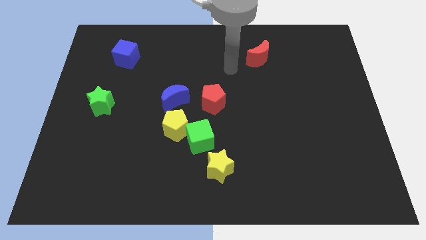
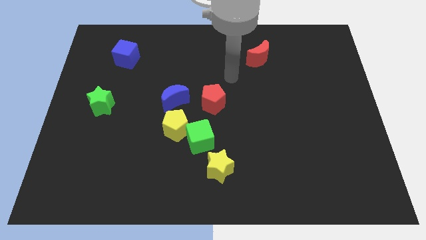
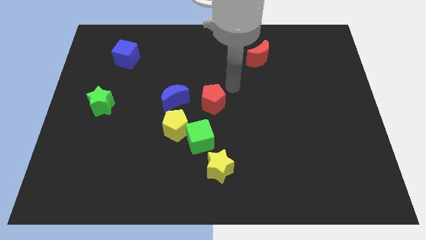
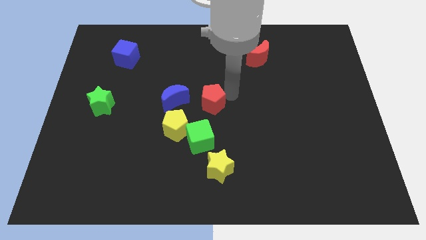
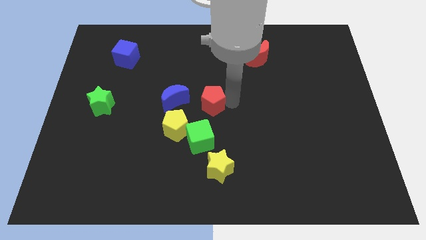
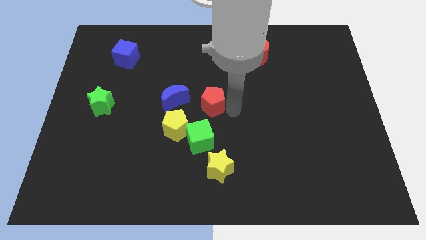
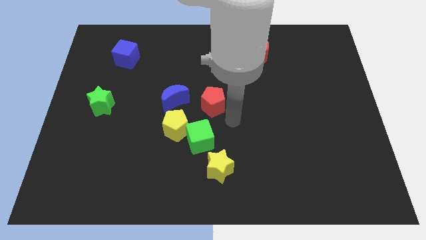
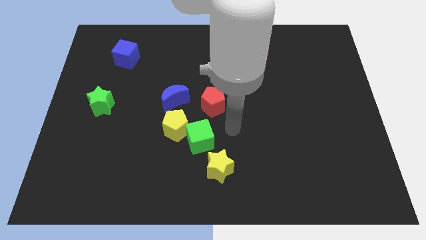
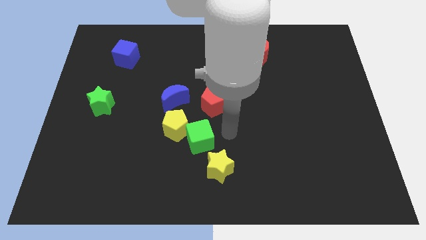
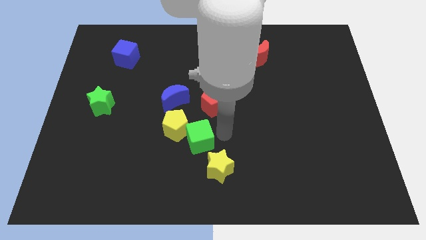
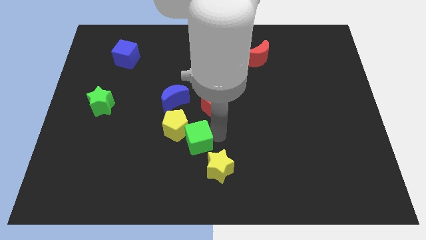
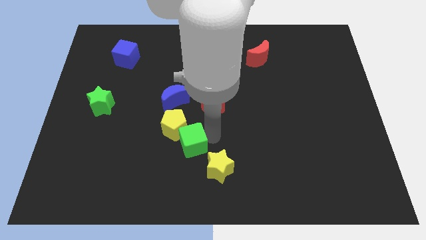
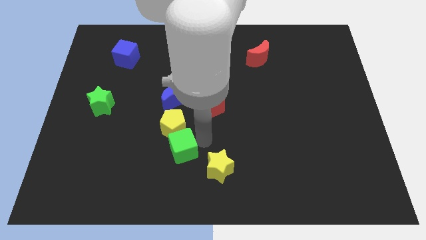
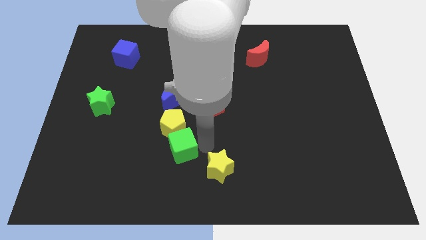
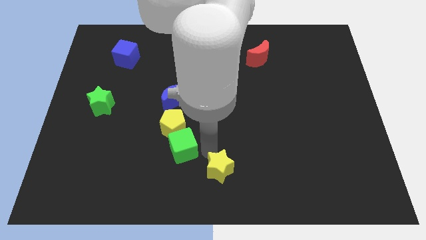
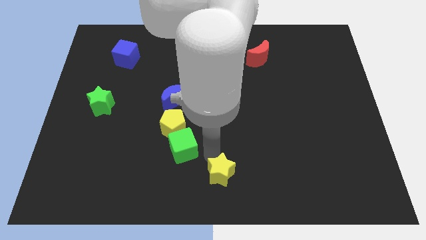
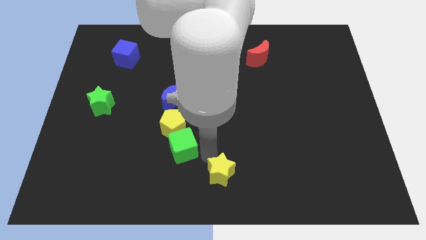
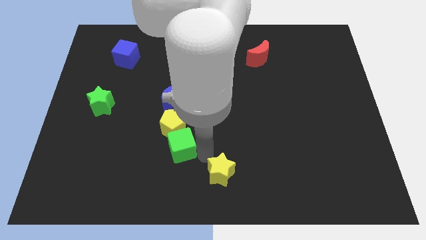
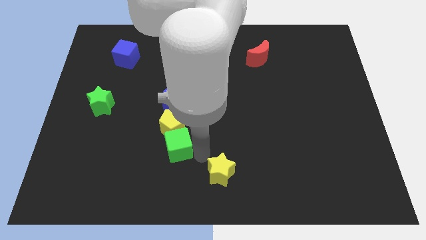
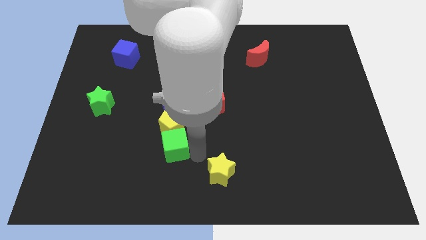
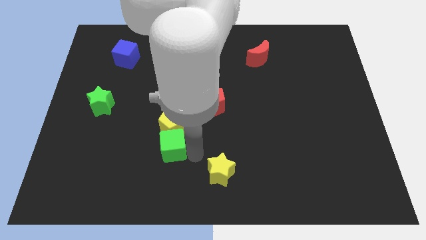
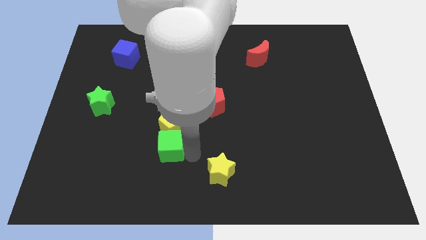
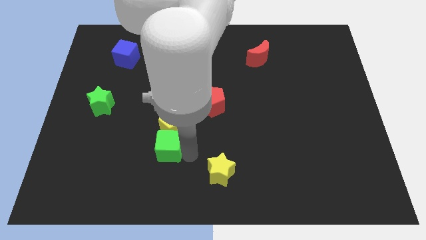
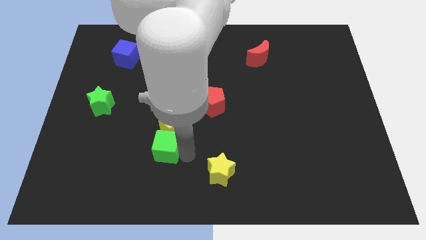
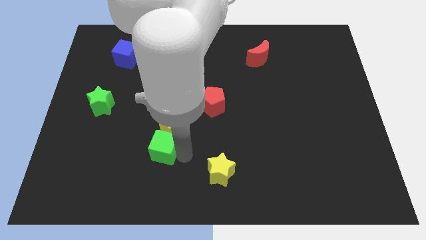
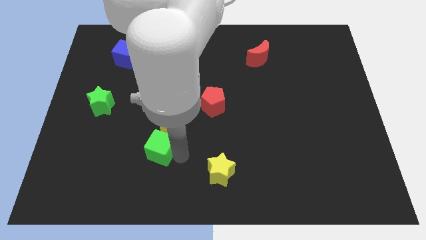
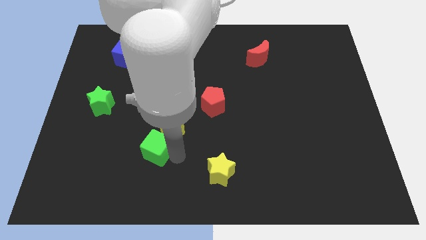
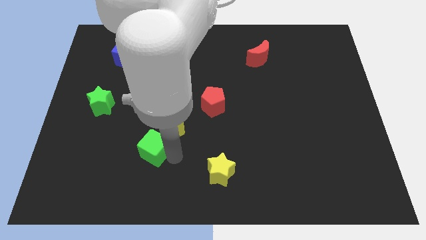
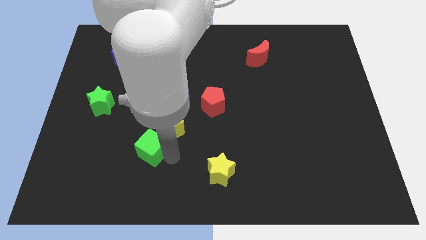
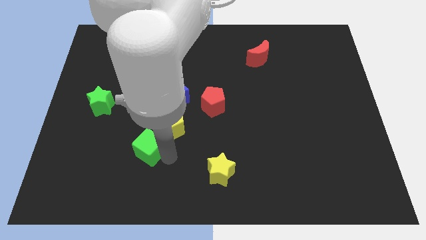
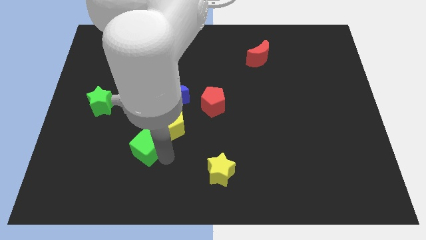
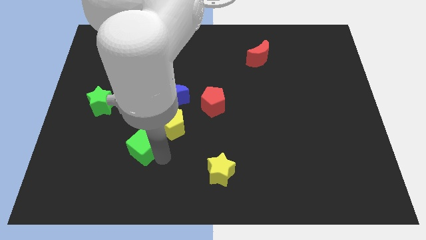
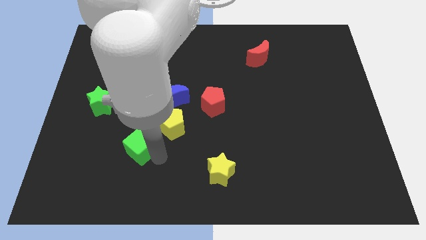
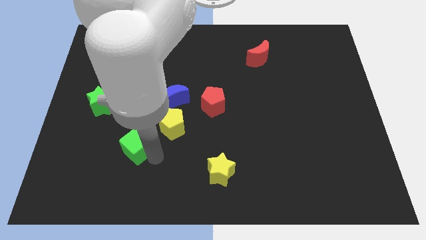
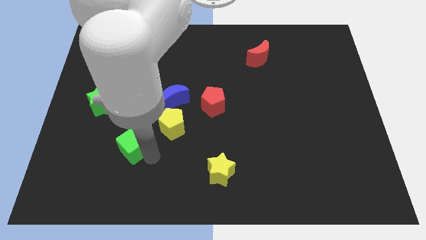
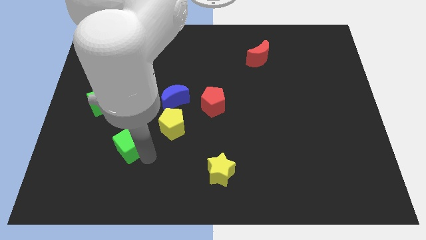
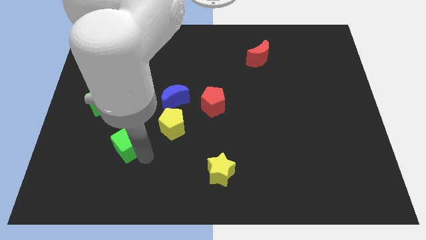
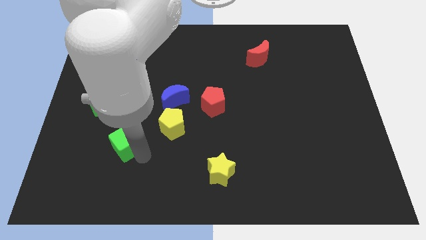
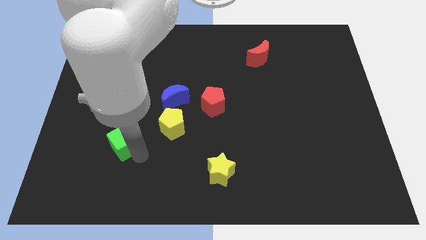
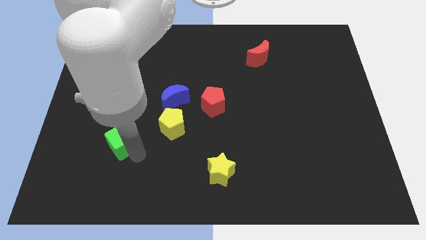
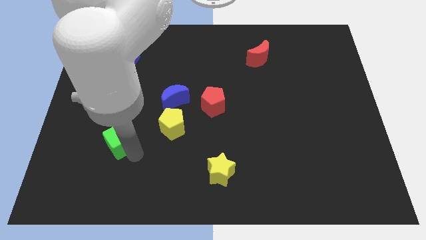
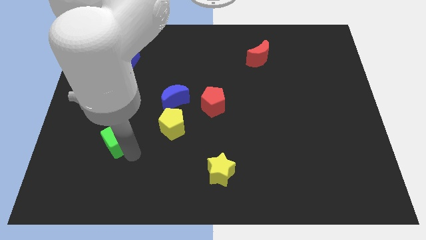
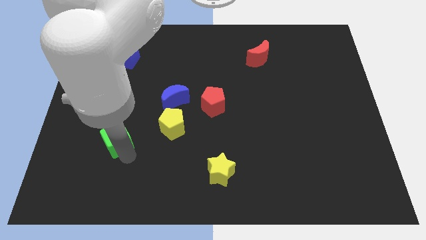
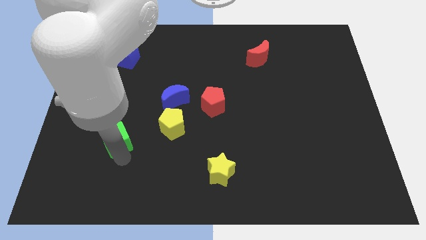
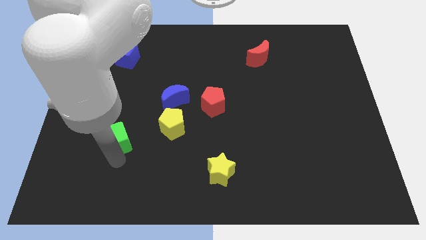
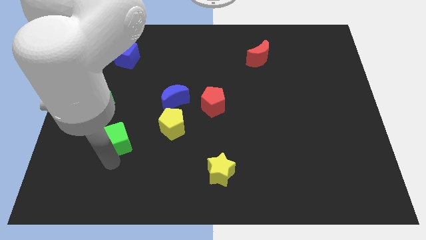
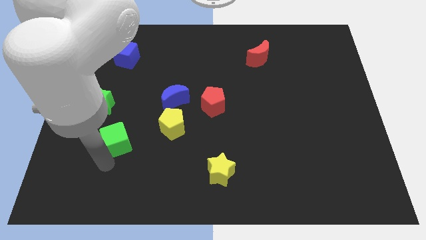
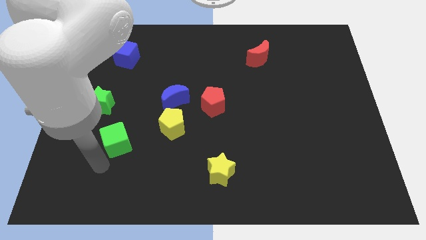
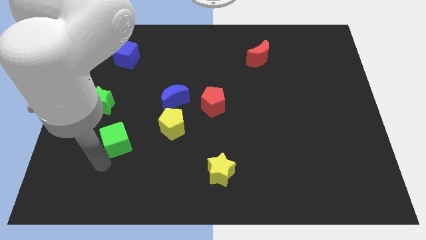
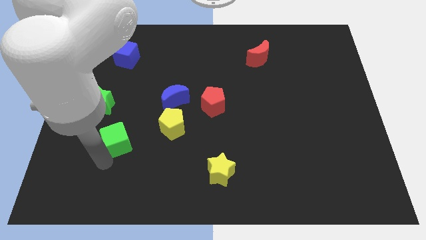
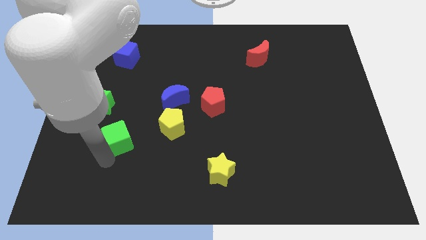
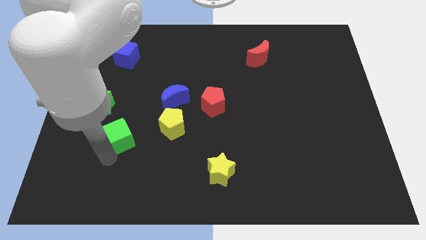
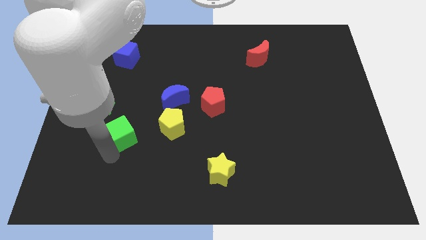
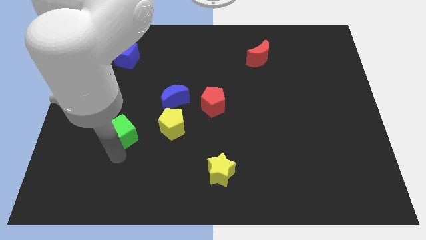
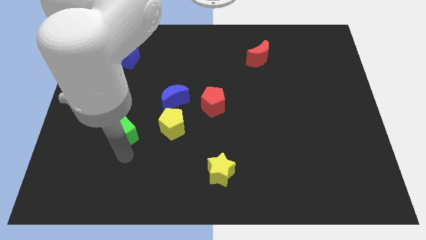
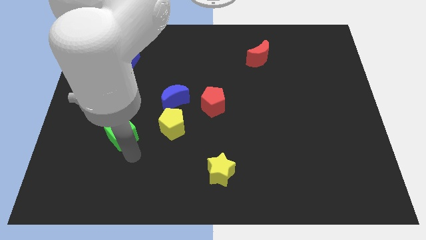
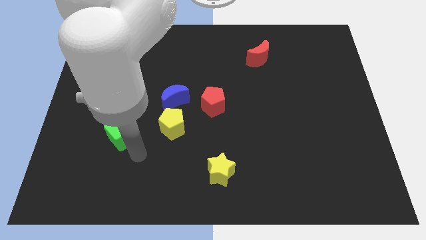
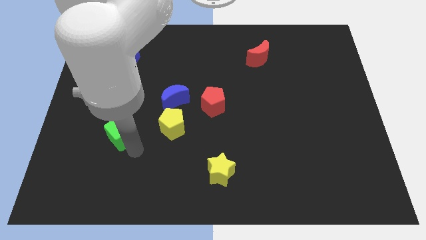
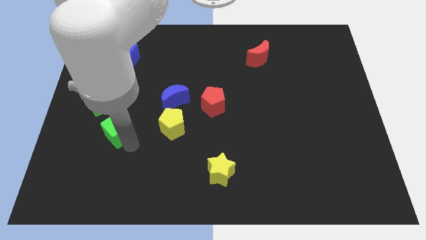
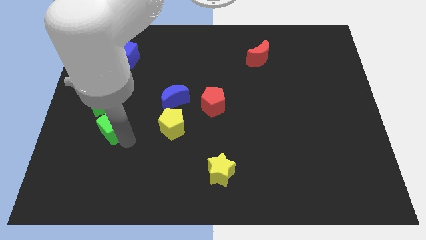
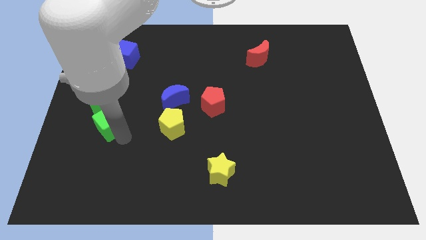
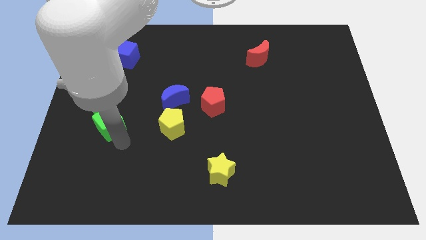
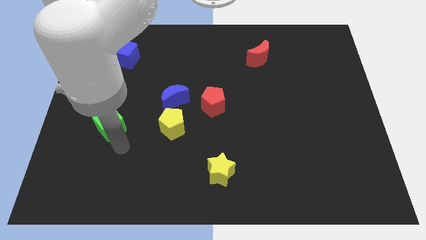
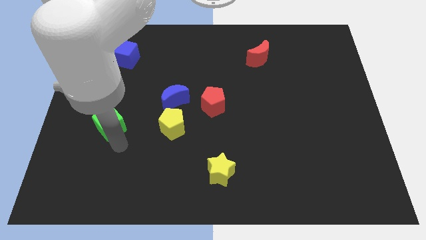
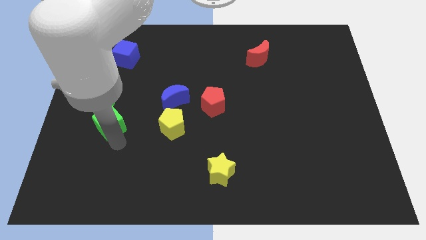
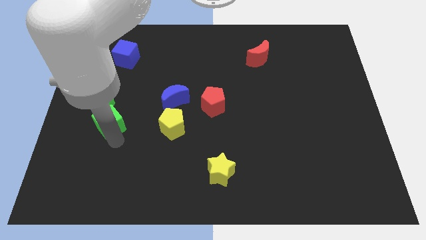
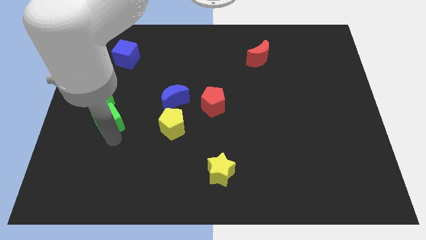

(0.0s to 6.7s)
push the green cube close to the green star
